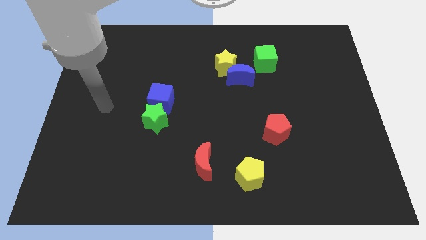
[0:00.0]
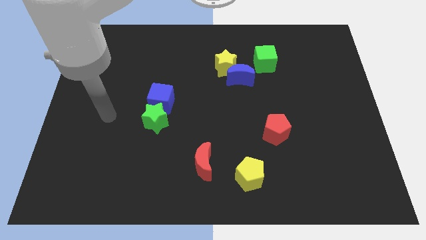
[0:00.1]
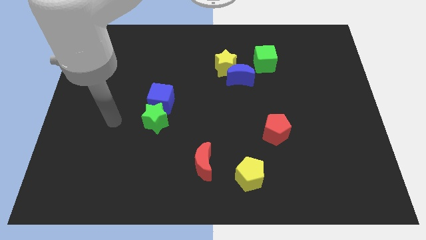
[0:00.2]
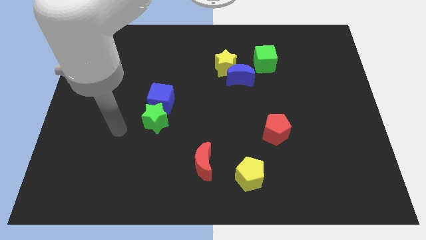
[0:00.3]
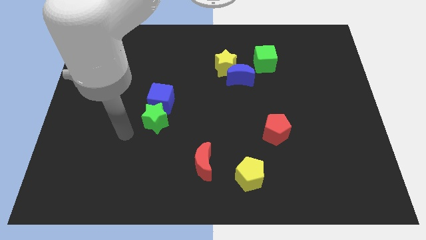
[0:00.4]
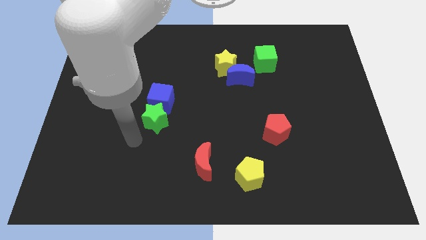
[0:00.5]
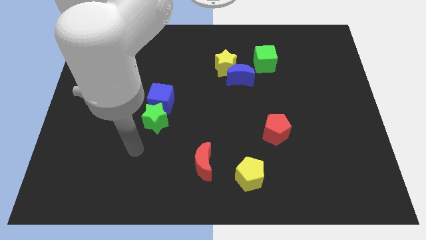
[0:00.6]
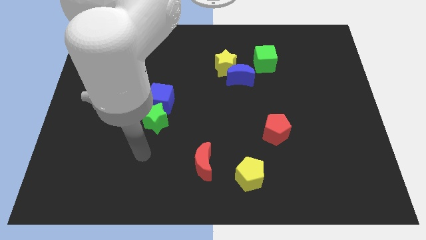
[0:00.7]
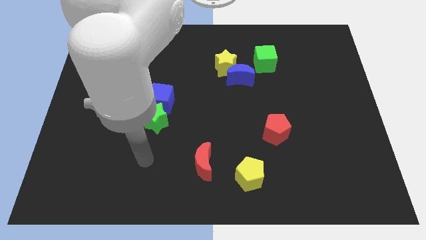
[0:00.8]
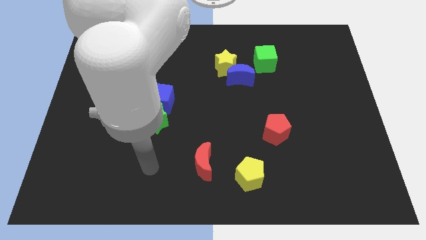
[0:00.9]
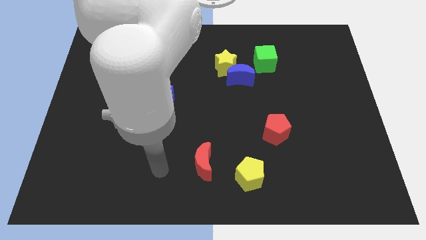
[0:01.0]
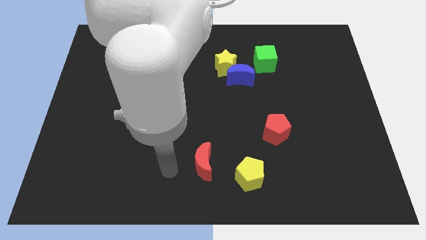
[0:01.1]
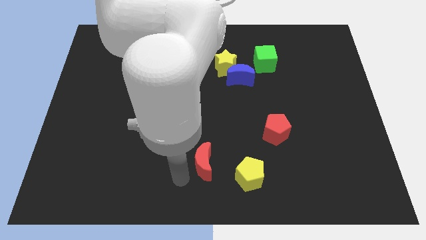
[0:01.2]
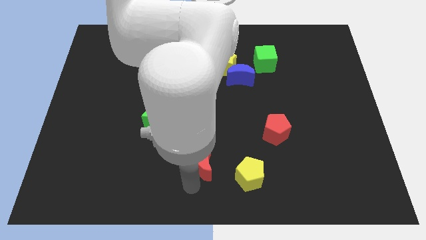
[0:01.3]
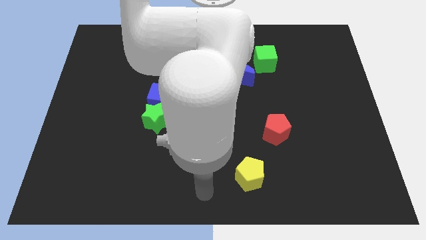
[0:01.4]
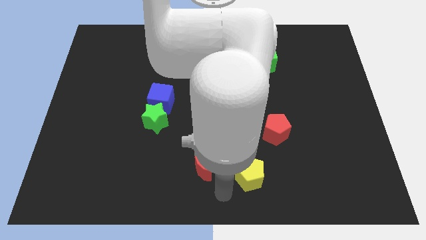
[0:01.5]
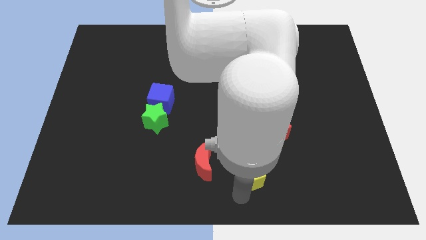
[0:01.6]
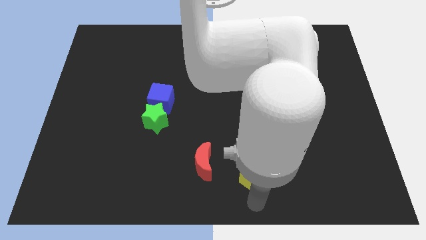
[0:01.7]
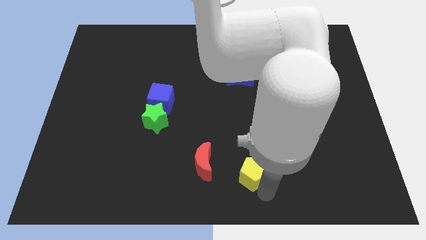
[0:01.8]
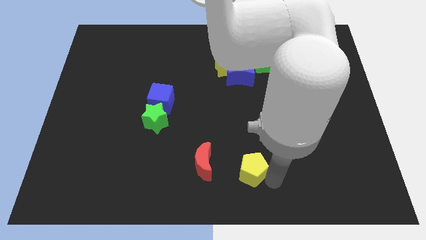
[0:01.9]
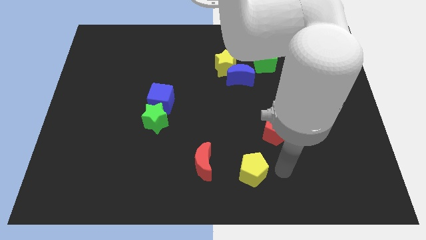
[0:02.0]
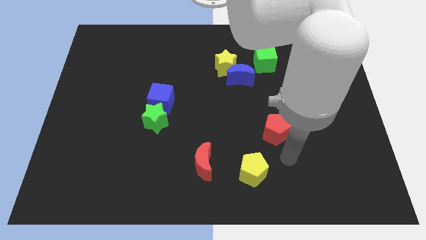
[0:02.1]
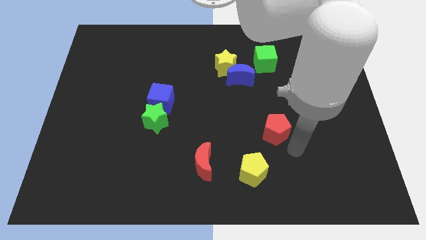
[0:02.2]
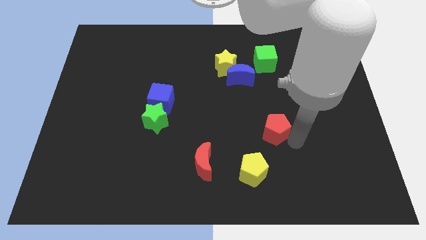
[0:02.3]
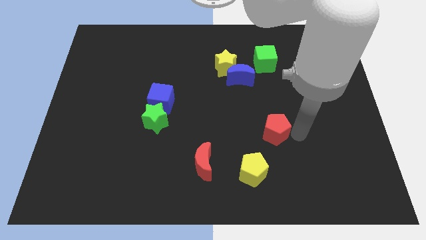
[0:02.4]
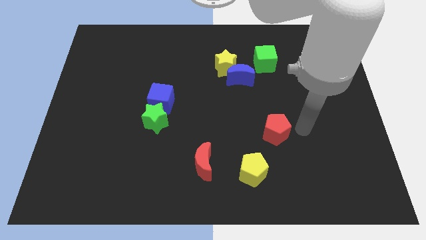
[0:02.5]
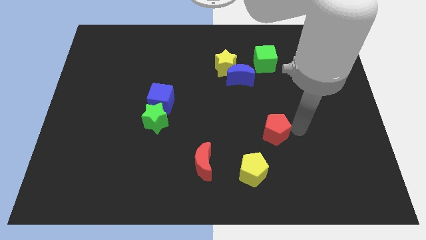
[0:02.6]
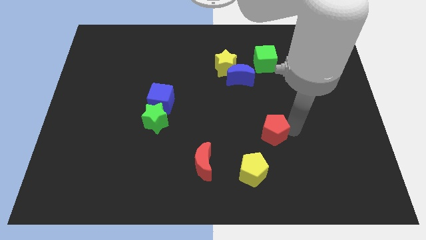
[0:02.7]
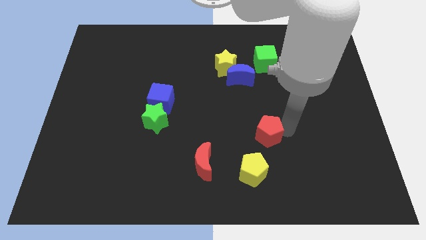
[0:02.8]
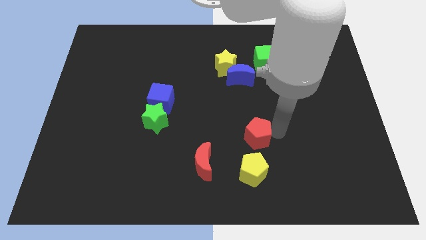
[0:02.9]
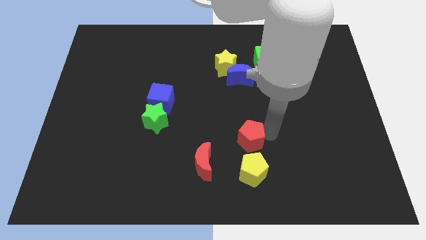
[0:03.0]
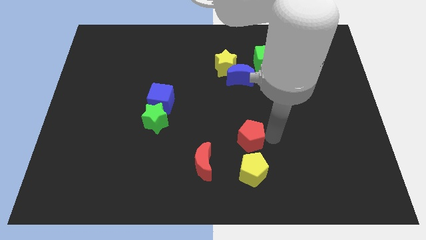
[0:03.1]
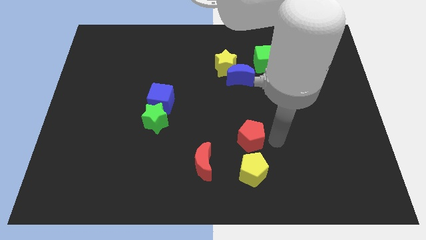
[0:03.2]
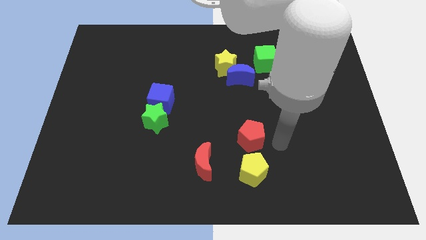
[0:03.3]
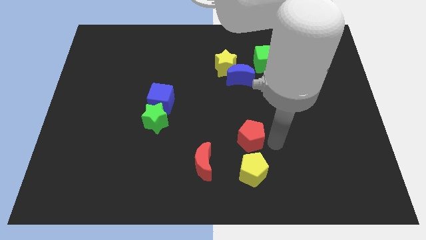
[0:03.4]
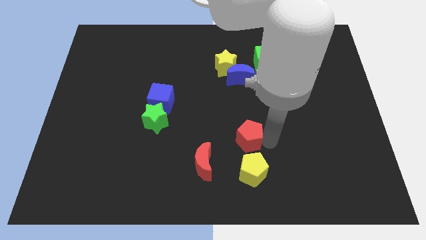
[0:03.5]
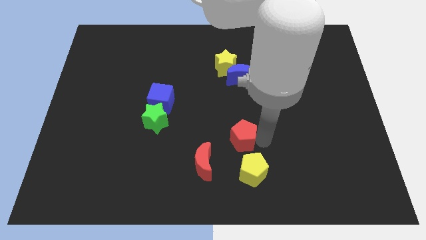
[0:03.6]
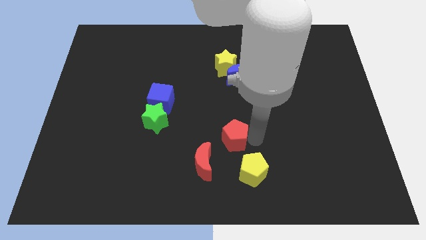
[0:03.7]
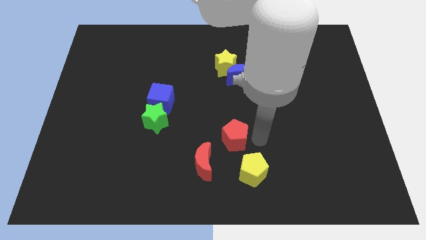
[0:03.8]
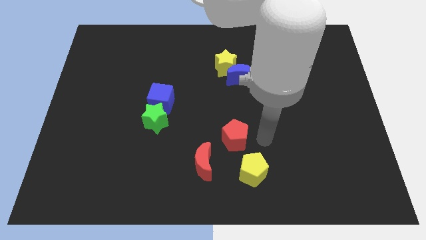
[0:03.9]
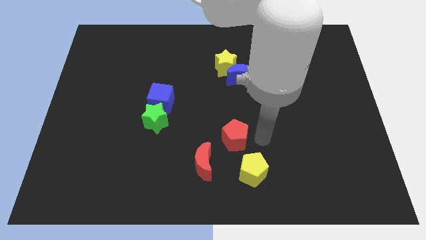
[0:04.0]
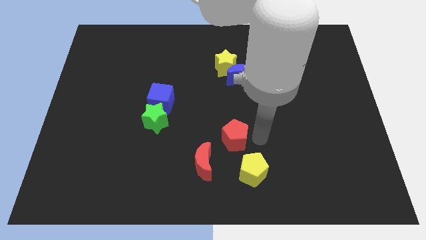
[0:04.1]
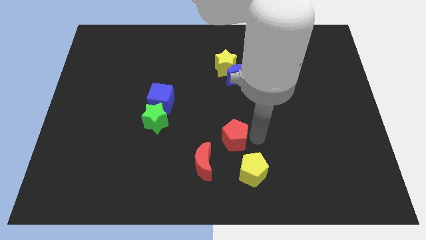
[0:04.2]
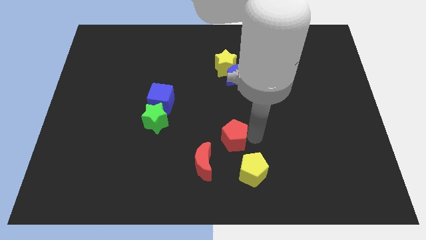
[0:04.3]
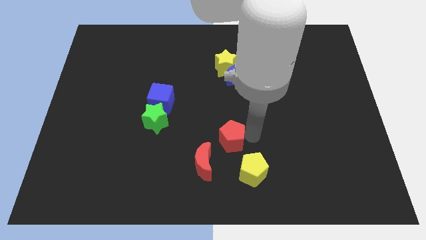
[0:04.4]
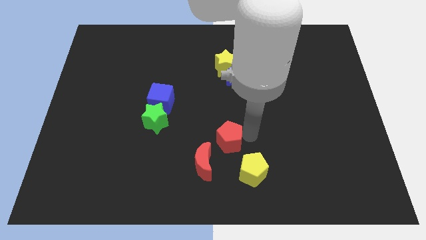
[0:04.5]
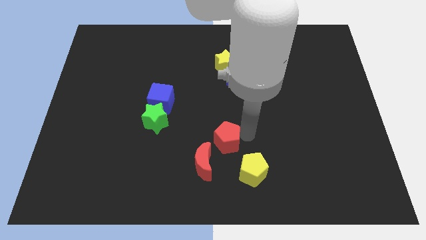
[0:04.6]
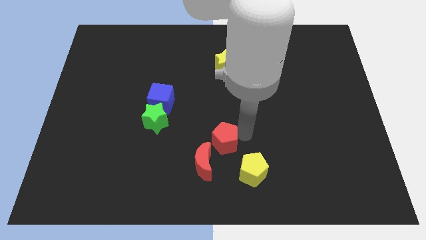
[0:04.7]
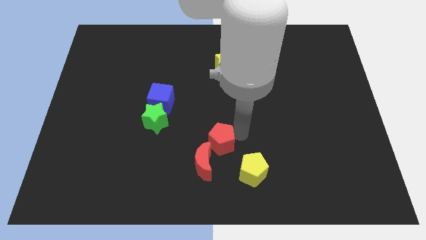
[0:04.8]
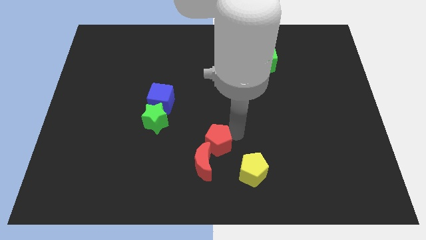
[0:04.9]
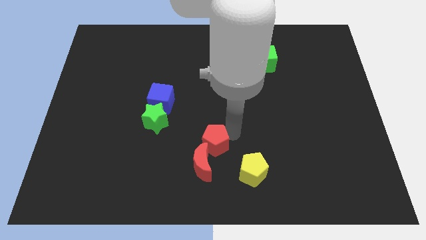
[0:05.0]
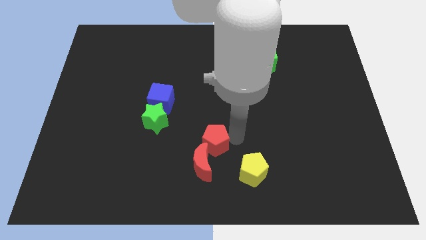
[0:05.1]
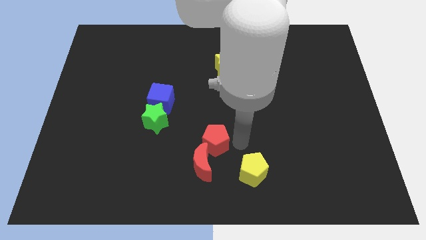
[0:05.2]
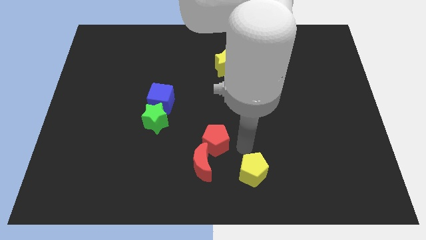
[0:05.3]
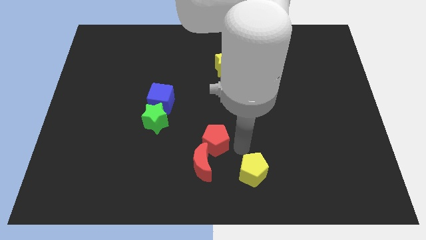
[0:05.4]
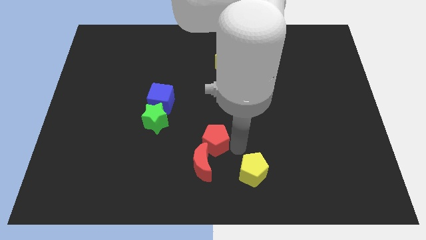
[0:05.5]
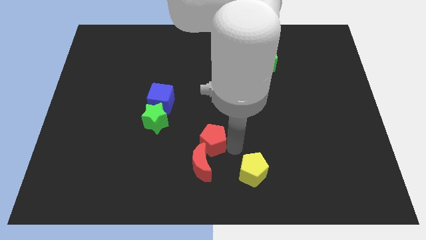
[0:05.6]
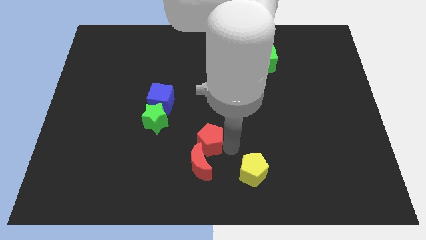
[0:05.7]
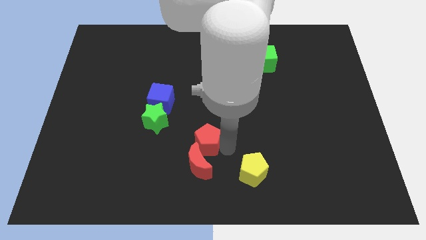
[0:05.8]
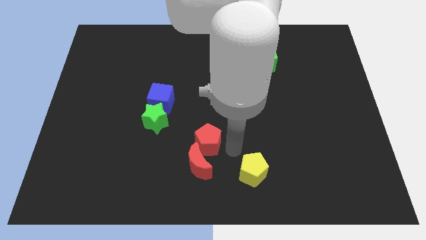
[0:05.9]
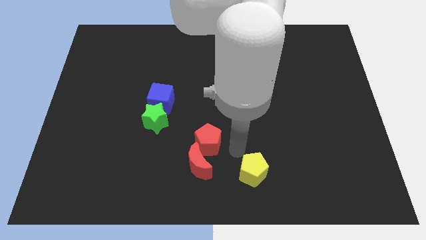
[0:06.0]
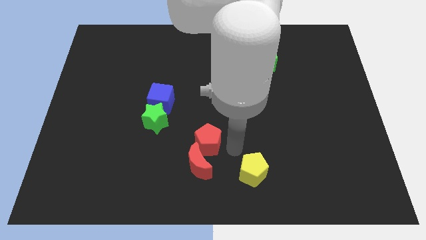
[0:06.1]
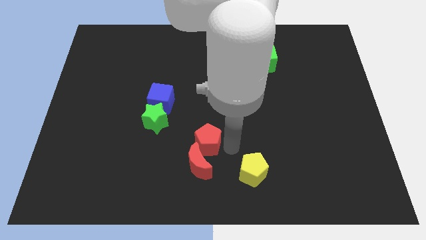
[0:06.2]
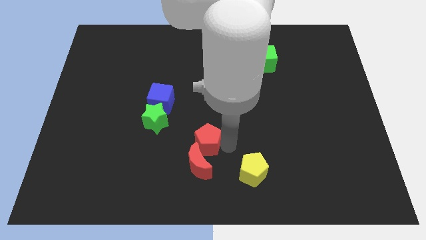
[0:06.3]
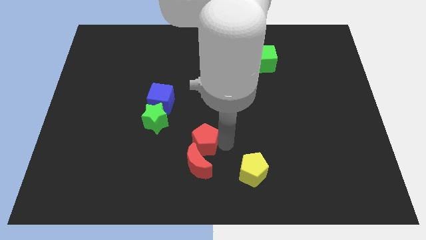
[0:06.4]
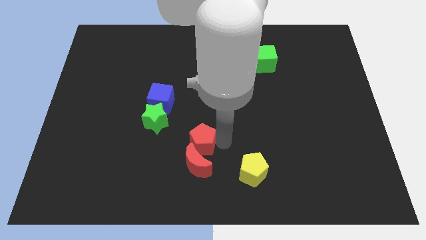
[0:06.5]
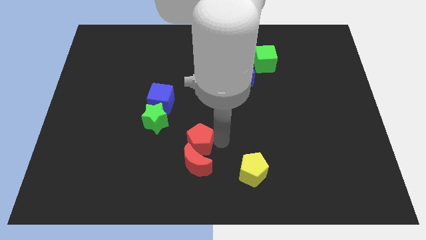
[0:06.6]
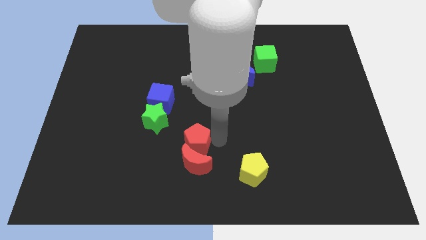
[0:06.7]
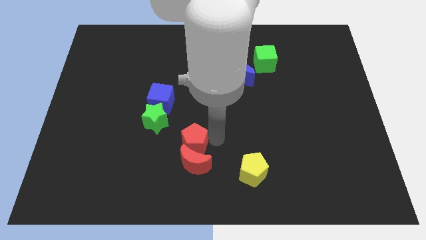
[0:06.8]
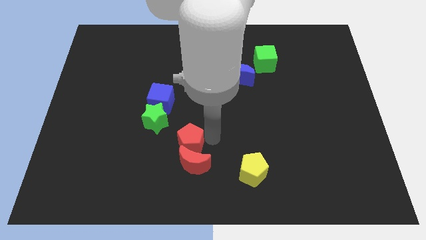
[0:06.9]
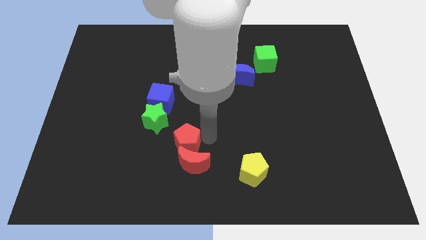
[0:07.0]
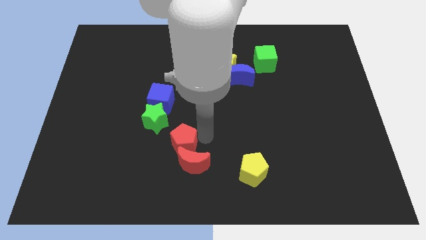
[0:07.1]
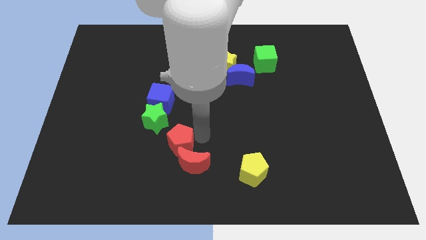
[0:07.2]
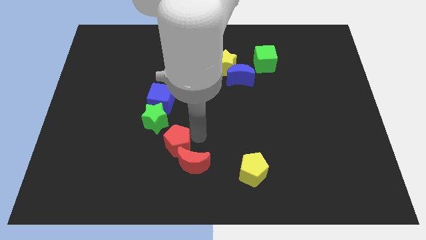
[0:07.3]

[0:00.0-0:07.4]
push the red pentagon below the blue cube
